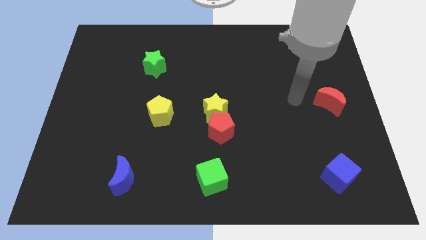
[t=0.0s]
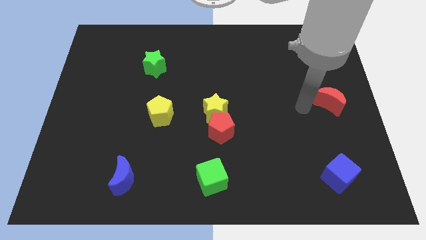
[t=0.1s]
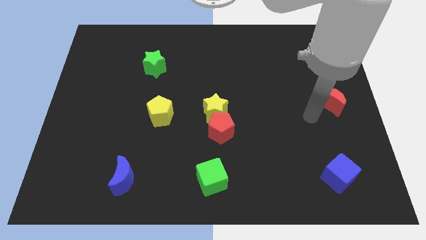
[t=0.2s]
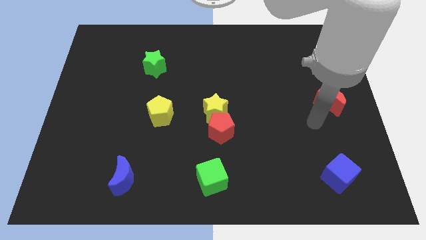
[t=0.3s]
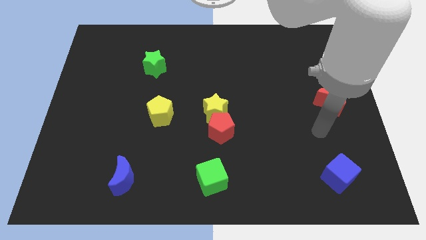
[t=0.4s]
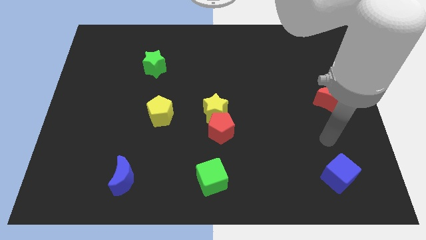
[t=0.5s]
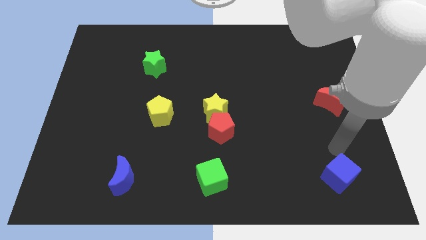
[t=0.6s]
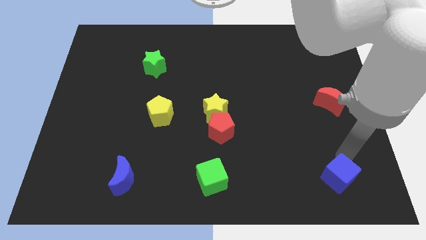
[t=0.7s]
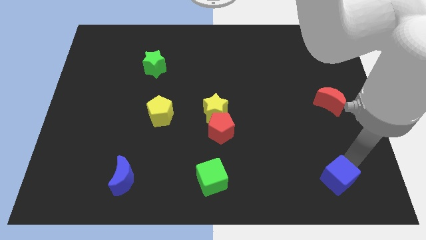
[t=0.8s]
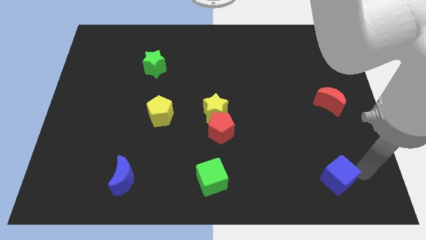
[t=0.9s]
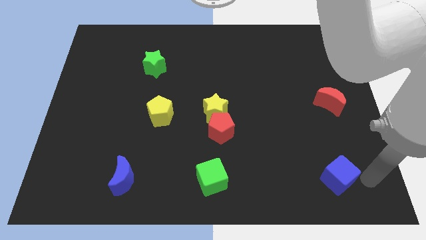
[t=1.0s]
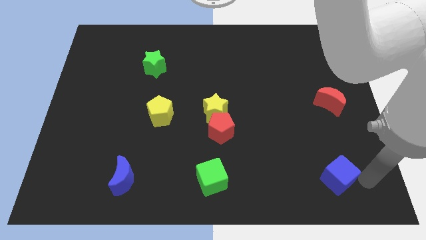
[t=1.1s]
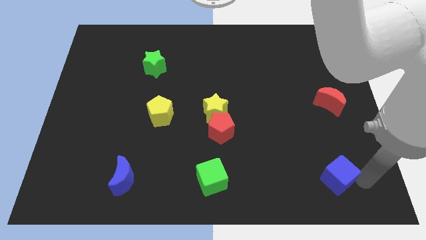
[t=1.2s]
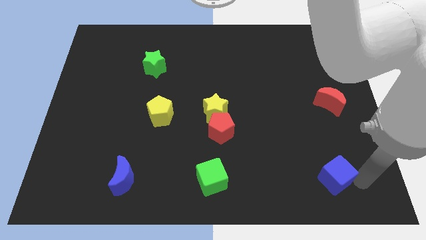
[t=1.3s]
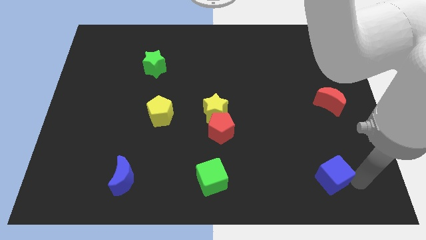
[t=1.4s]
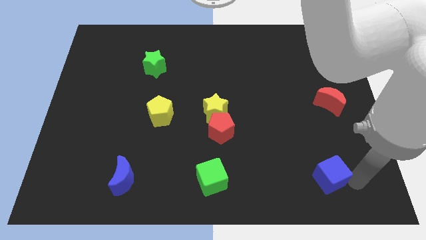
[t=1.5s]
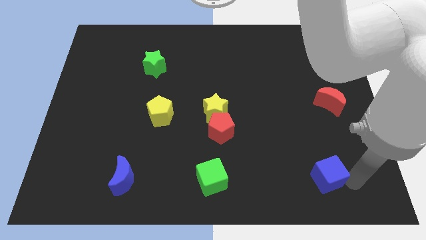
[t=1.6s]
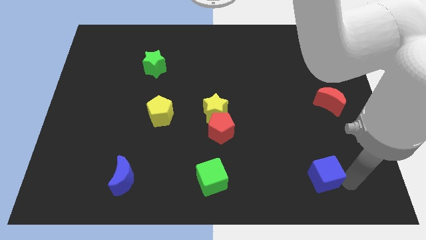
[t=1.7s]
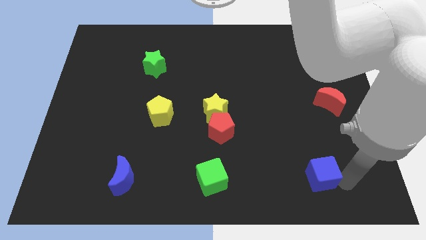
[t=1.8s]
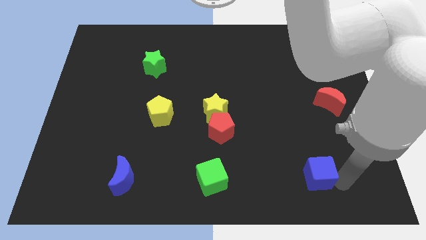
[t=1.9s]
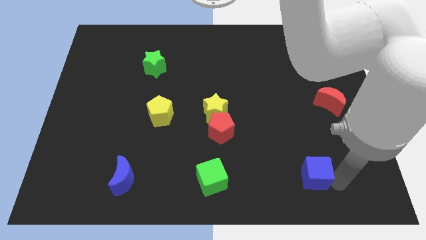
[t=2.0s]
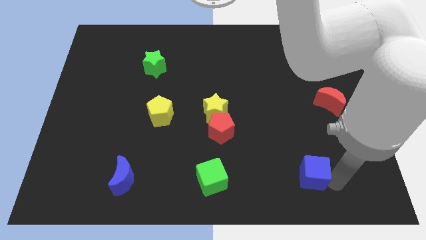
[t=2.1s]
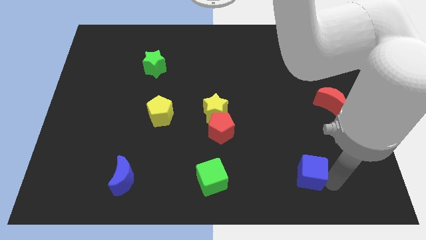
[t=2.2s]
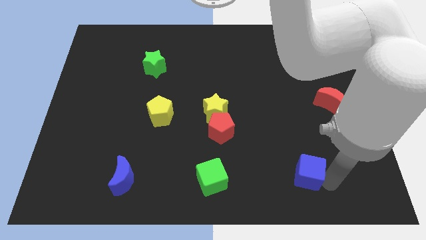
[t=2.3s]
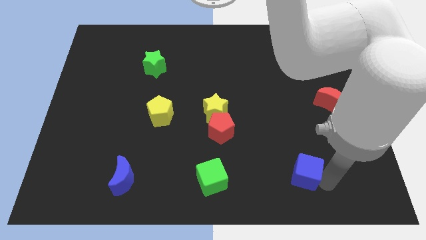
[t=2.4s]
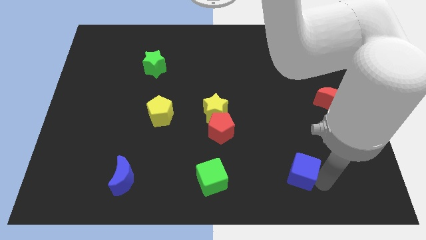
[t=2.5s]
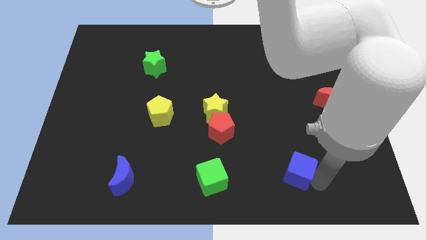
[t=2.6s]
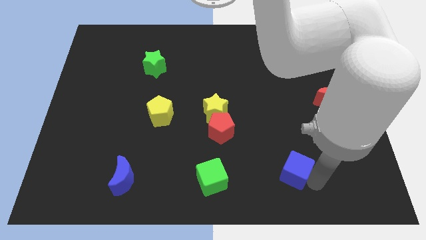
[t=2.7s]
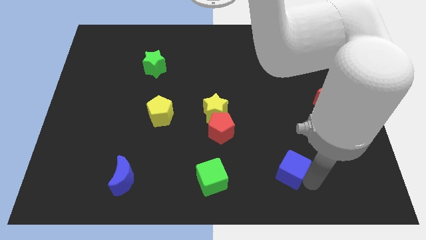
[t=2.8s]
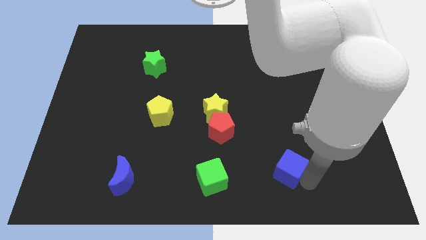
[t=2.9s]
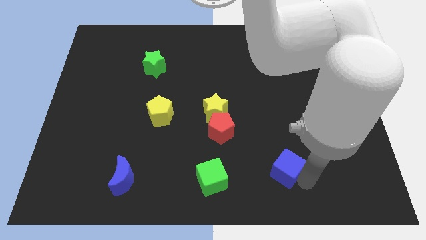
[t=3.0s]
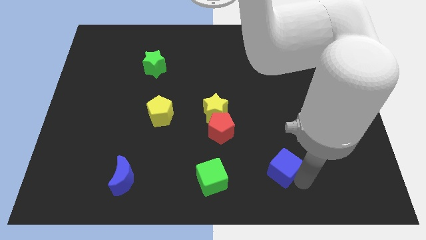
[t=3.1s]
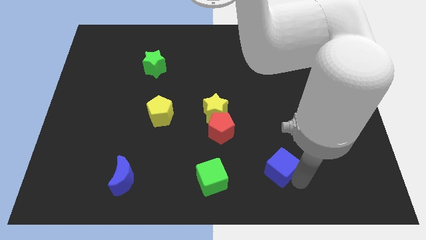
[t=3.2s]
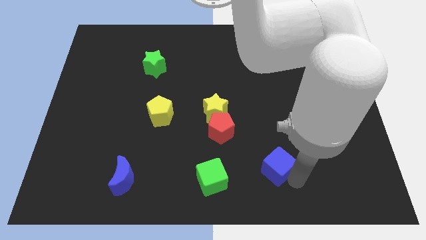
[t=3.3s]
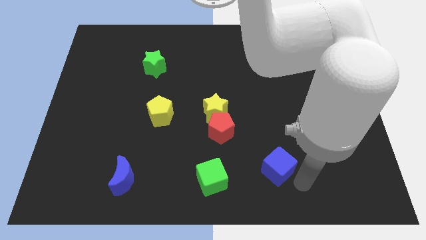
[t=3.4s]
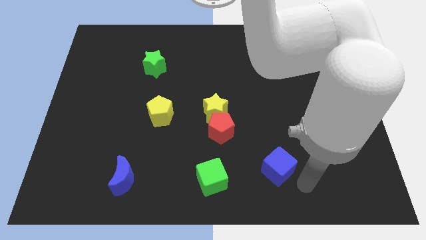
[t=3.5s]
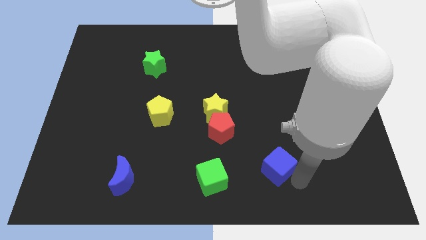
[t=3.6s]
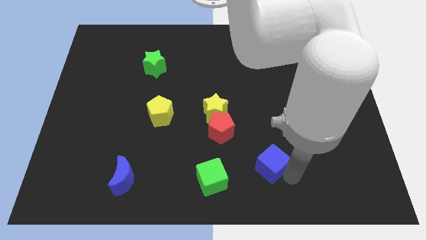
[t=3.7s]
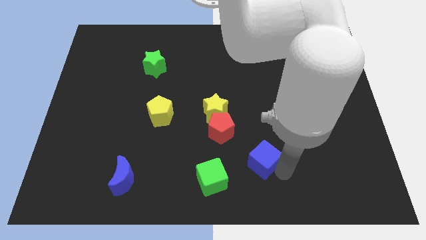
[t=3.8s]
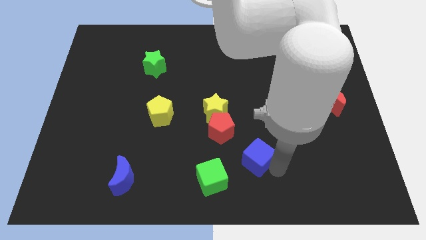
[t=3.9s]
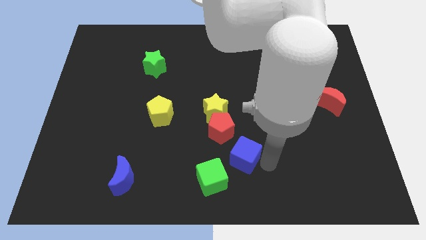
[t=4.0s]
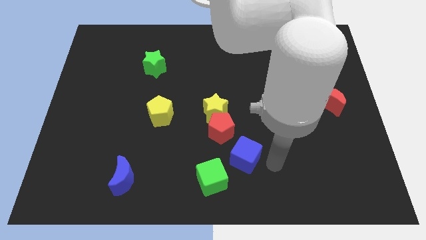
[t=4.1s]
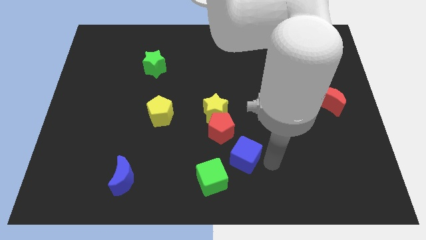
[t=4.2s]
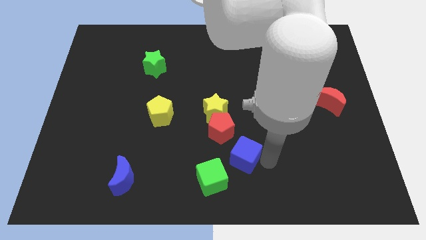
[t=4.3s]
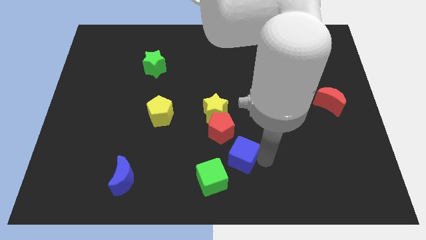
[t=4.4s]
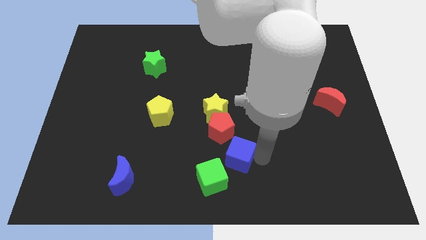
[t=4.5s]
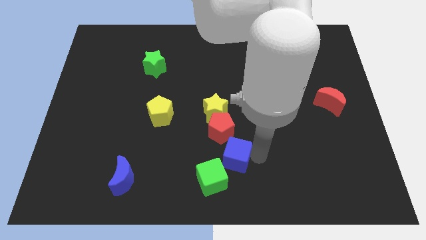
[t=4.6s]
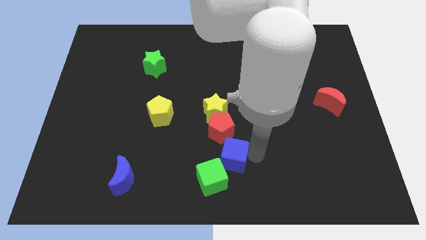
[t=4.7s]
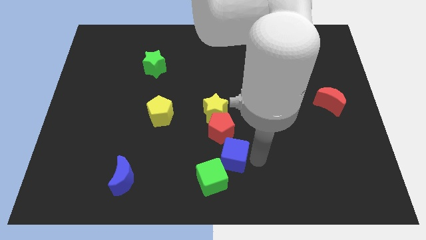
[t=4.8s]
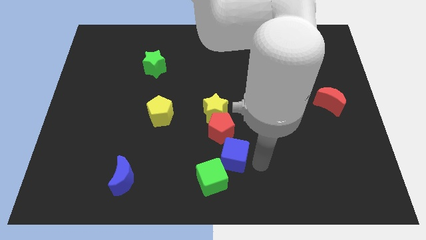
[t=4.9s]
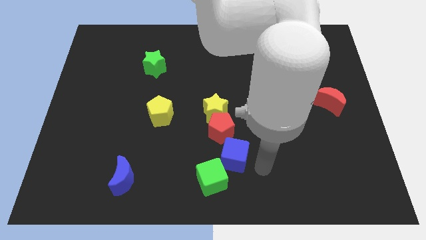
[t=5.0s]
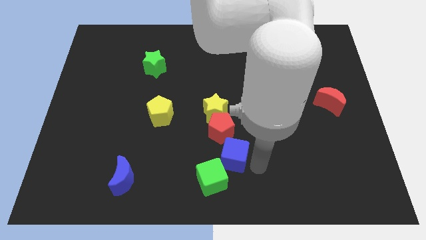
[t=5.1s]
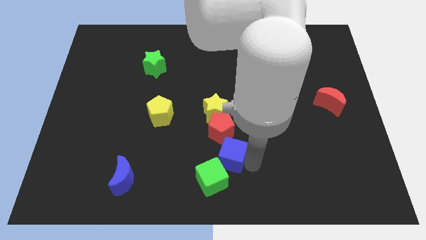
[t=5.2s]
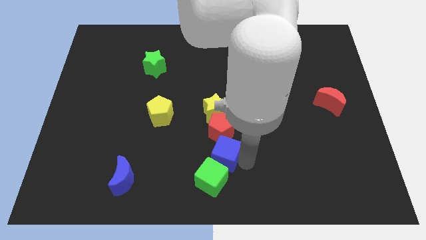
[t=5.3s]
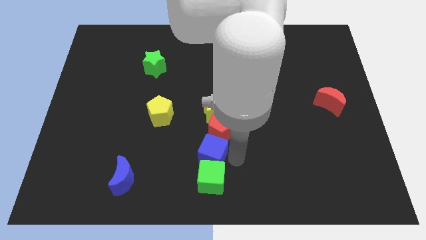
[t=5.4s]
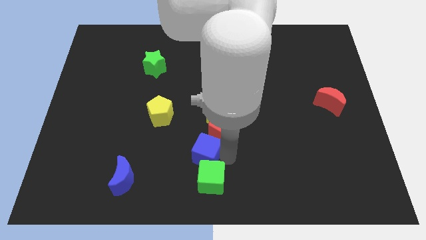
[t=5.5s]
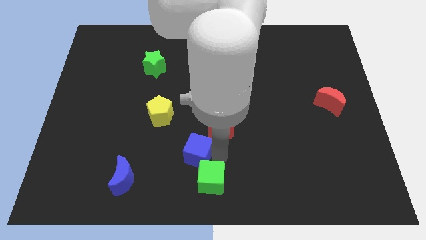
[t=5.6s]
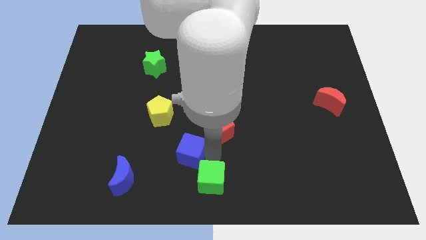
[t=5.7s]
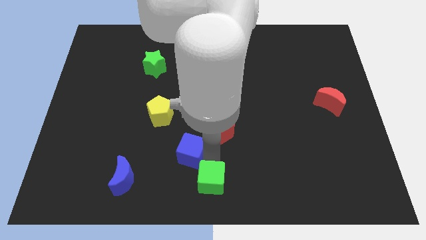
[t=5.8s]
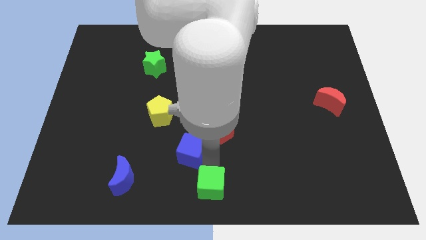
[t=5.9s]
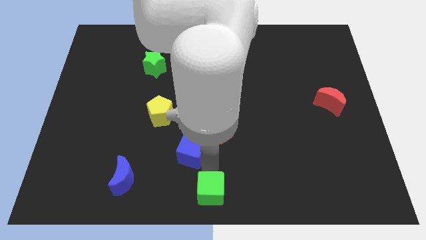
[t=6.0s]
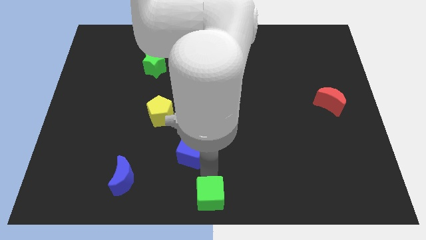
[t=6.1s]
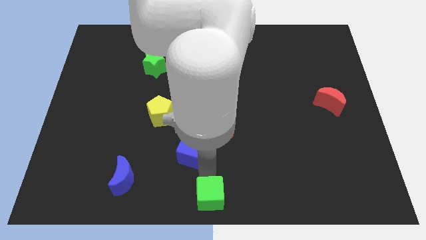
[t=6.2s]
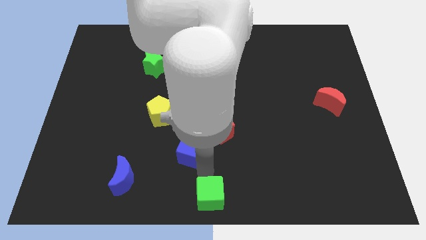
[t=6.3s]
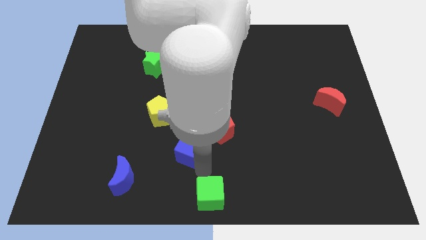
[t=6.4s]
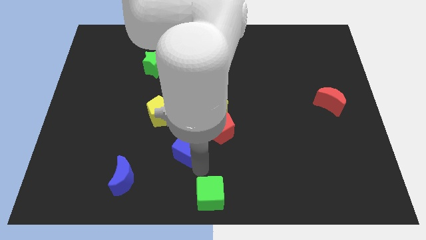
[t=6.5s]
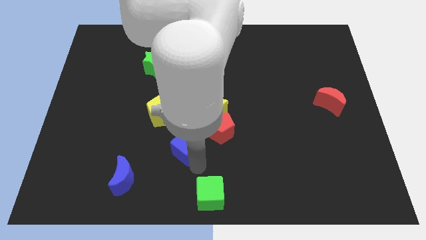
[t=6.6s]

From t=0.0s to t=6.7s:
move the blue cube to the left of the red pentagon
